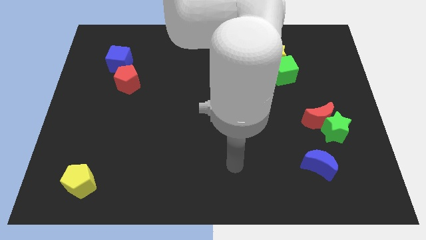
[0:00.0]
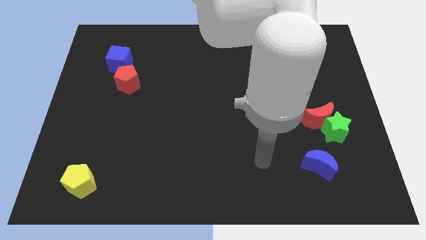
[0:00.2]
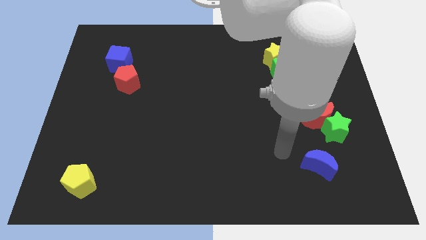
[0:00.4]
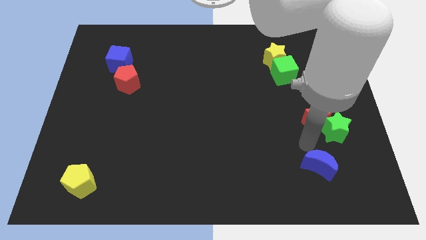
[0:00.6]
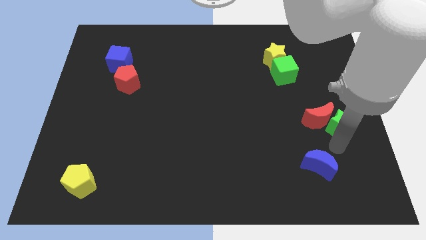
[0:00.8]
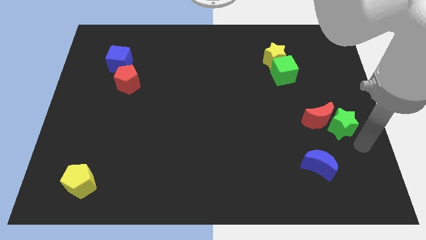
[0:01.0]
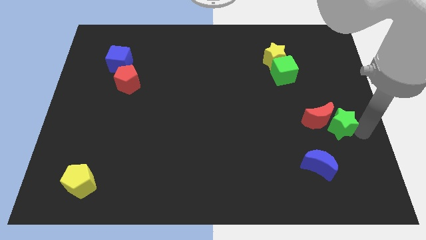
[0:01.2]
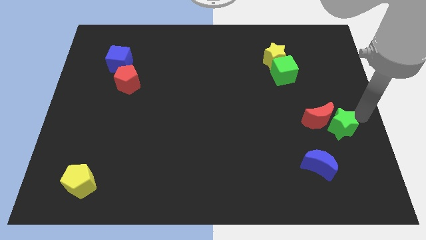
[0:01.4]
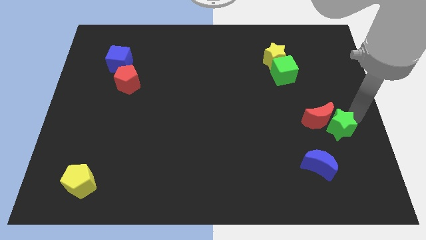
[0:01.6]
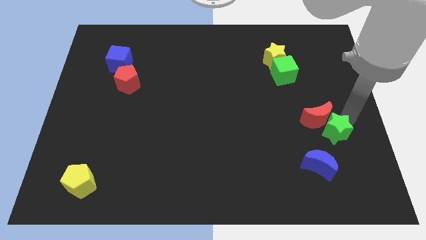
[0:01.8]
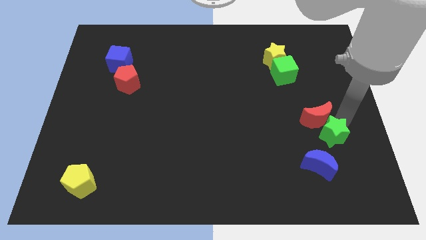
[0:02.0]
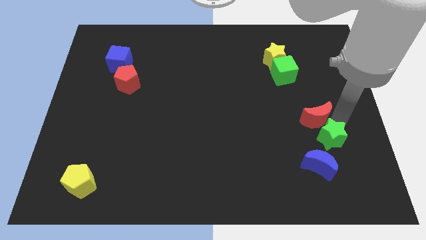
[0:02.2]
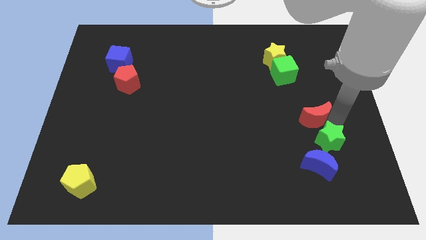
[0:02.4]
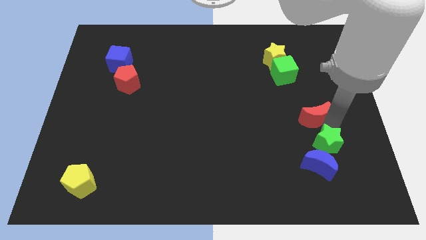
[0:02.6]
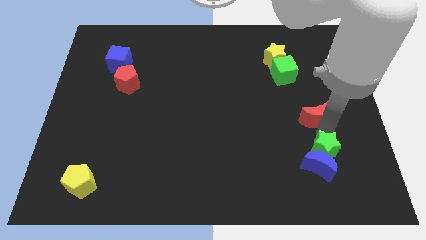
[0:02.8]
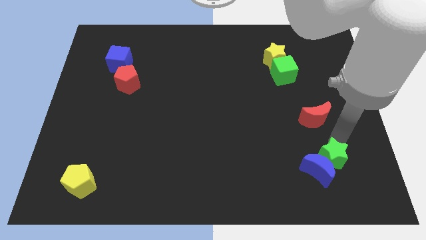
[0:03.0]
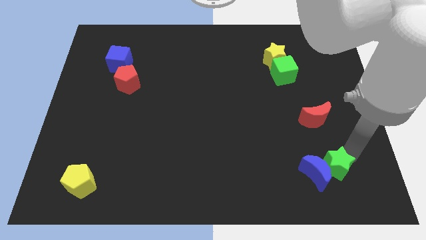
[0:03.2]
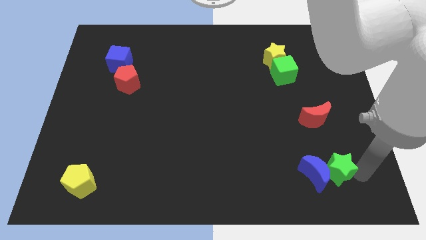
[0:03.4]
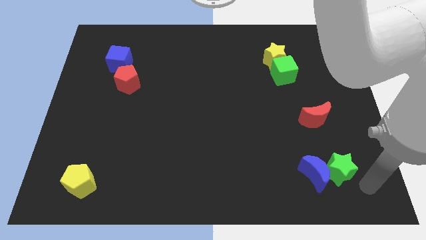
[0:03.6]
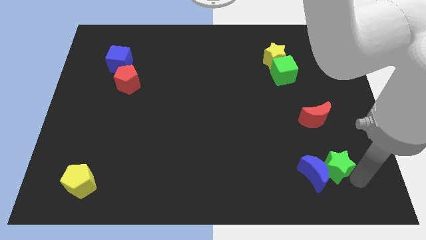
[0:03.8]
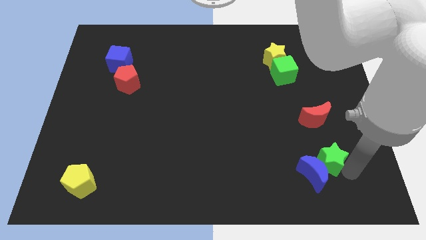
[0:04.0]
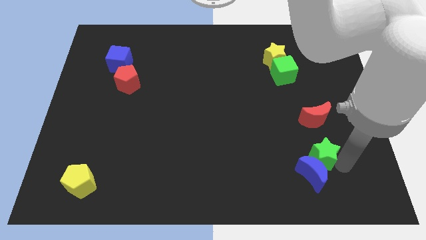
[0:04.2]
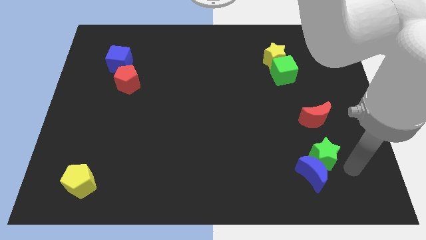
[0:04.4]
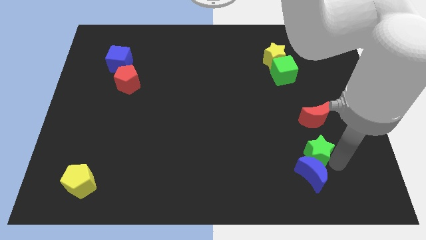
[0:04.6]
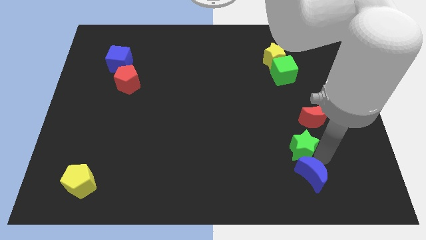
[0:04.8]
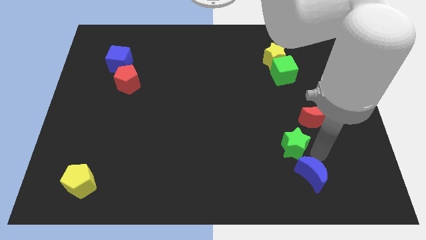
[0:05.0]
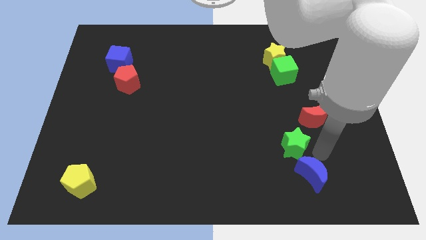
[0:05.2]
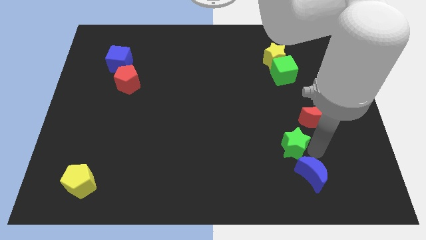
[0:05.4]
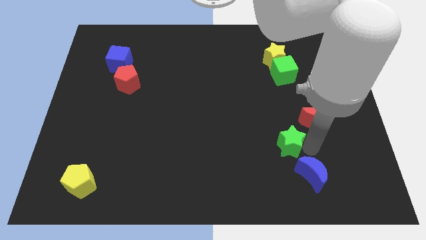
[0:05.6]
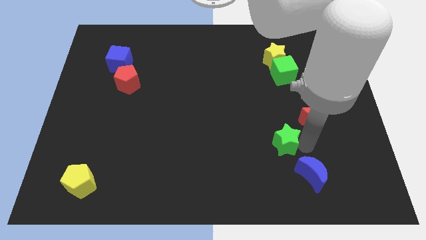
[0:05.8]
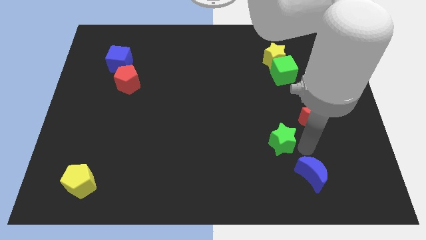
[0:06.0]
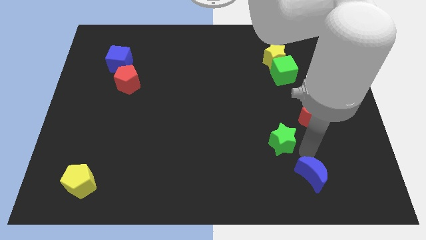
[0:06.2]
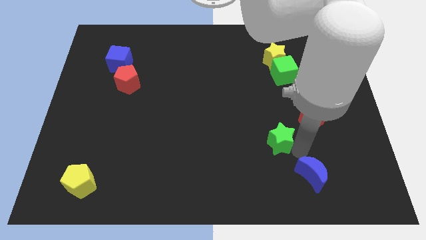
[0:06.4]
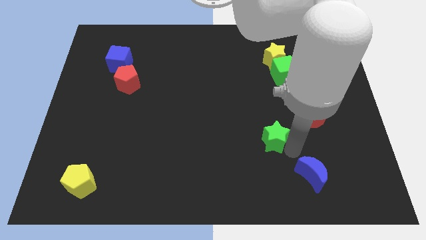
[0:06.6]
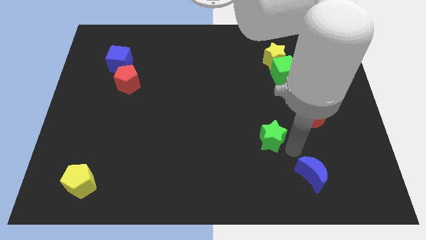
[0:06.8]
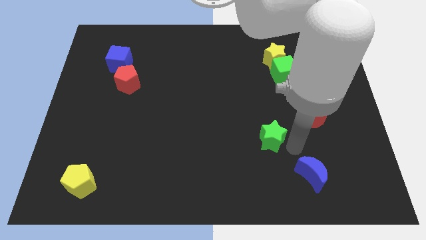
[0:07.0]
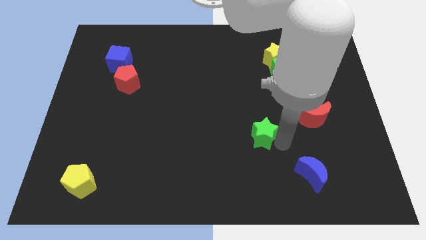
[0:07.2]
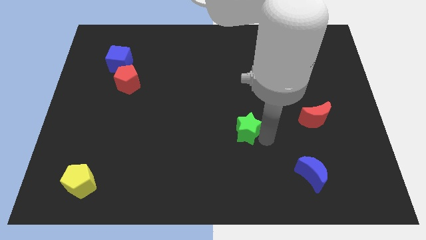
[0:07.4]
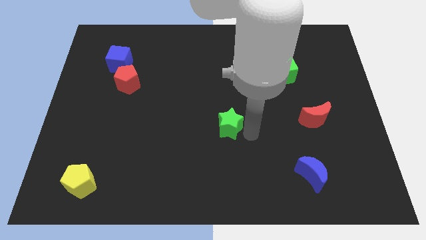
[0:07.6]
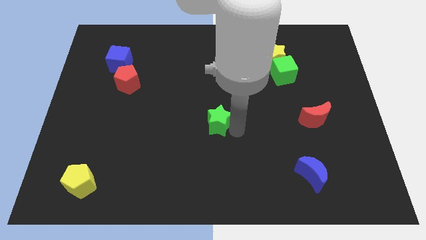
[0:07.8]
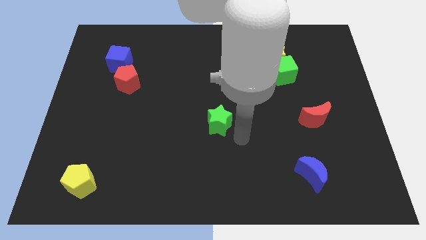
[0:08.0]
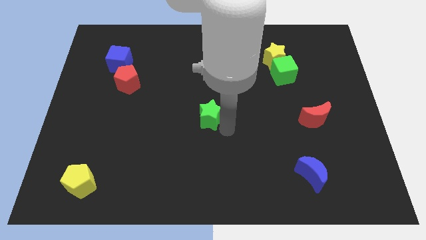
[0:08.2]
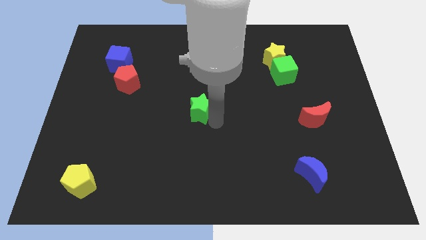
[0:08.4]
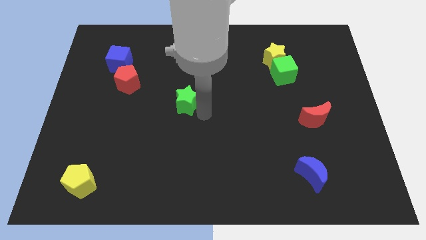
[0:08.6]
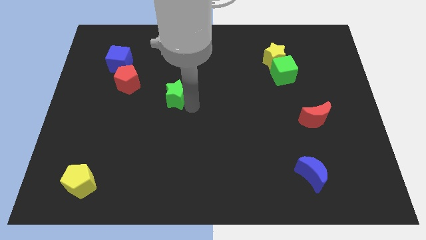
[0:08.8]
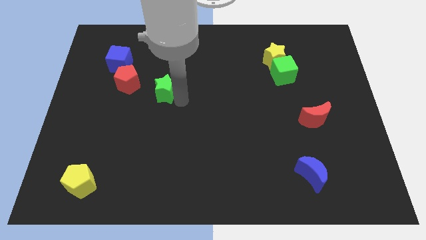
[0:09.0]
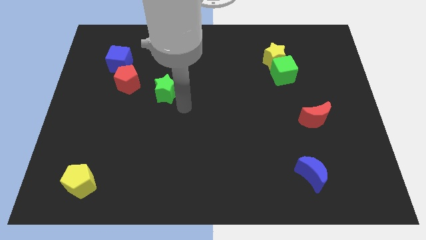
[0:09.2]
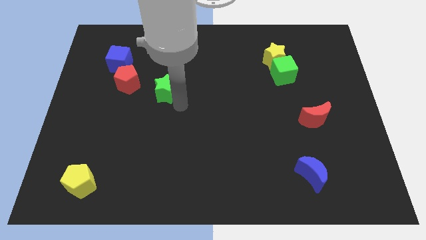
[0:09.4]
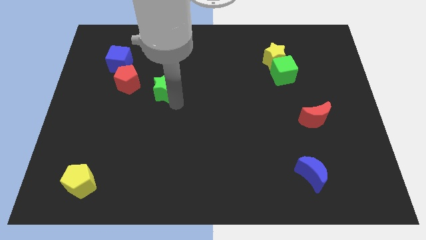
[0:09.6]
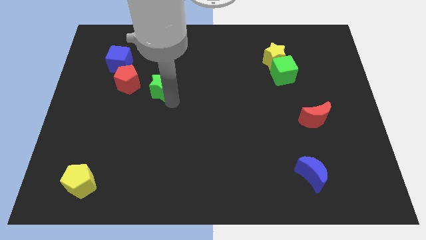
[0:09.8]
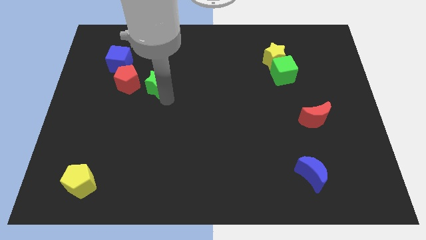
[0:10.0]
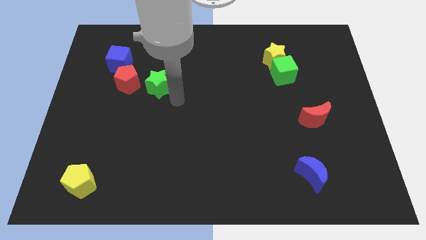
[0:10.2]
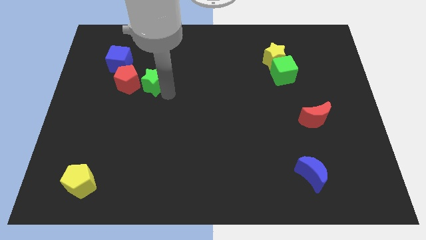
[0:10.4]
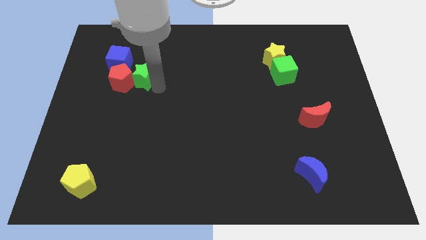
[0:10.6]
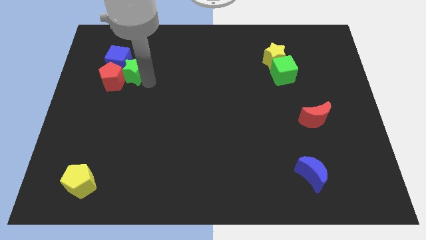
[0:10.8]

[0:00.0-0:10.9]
push the green star towards the blue cube

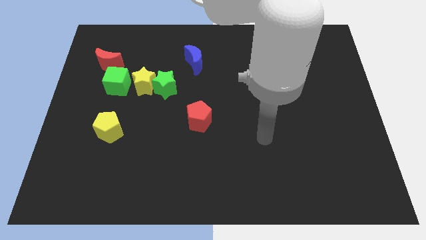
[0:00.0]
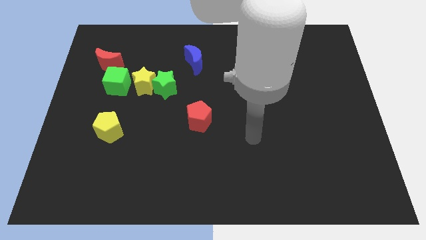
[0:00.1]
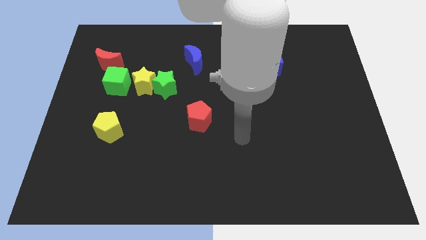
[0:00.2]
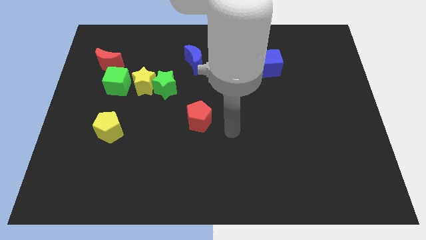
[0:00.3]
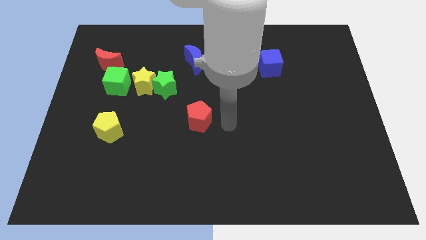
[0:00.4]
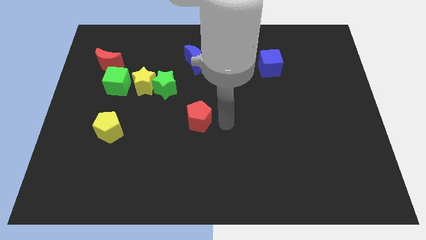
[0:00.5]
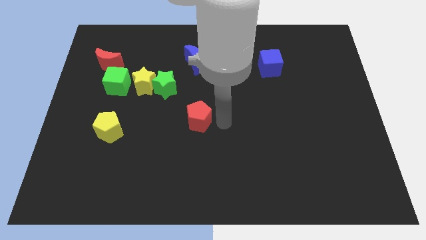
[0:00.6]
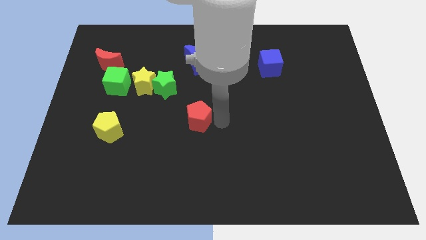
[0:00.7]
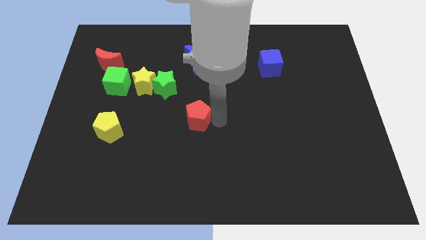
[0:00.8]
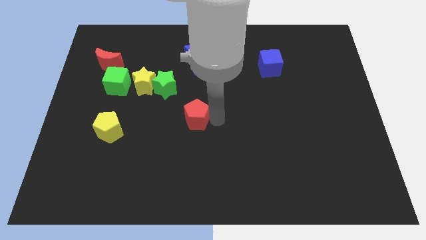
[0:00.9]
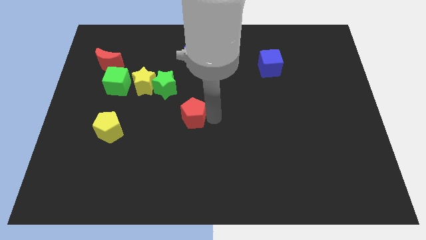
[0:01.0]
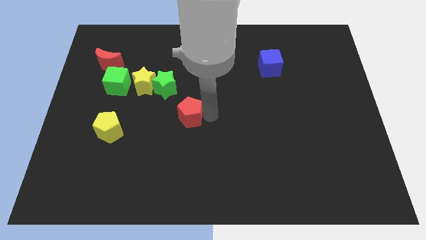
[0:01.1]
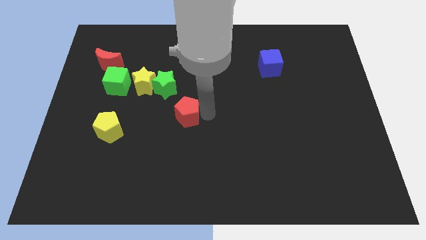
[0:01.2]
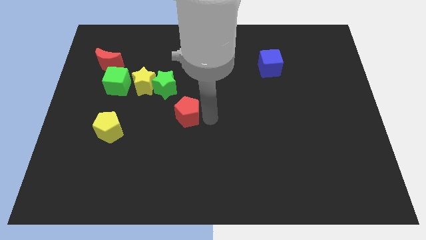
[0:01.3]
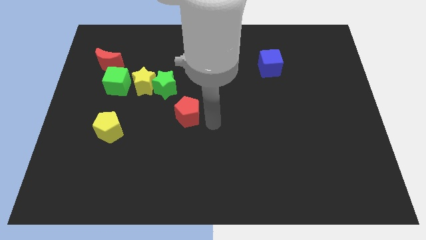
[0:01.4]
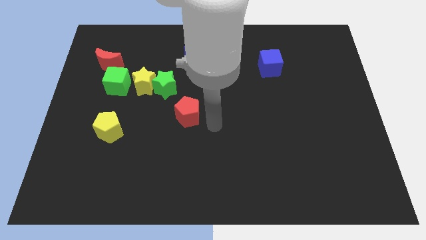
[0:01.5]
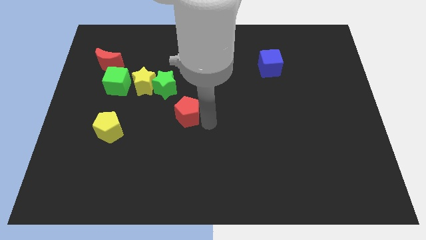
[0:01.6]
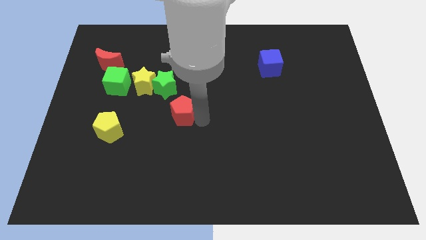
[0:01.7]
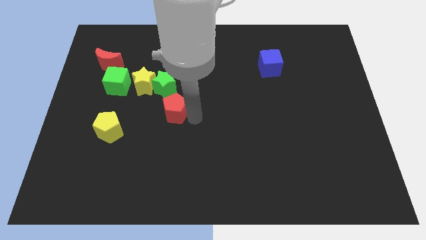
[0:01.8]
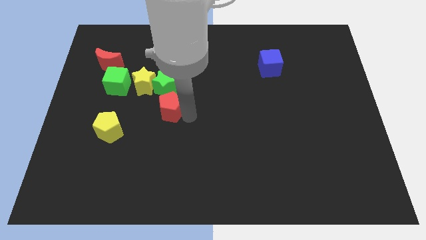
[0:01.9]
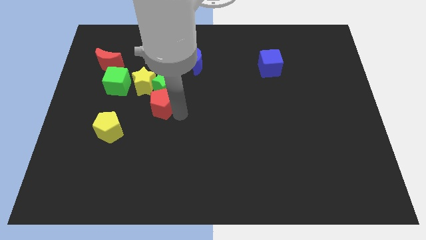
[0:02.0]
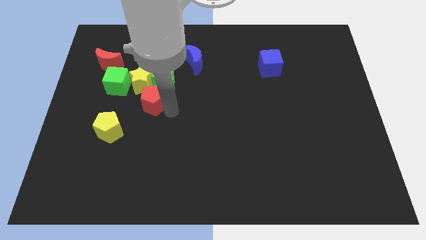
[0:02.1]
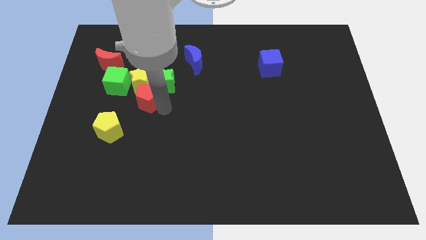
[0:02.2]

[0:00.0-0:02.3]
move the red pentagon next to the yellow star
